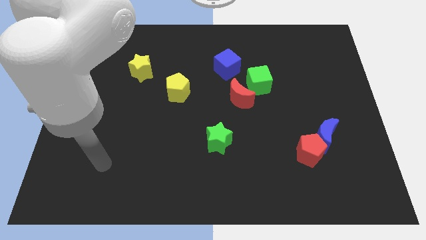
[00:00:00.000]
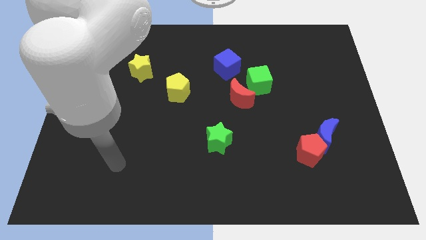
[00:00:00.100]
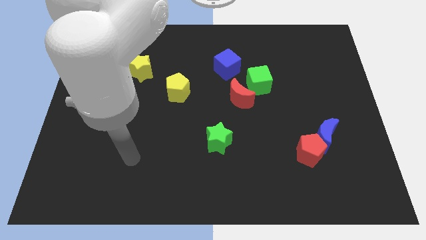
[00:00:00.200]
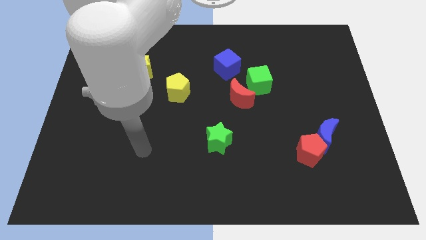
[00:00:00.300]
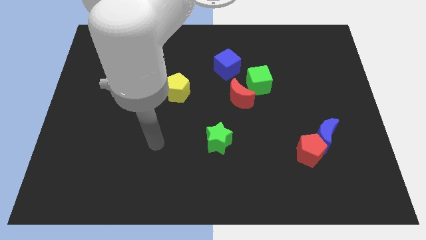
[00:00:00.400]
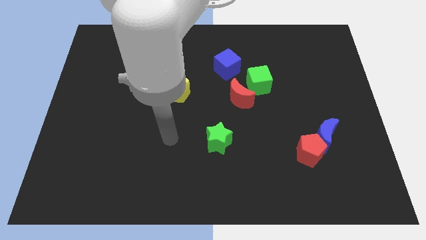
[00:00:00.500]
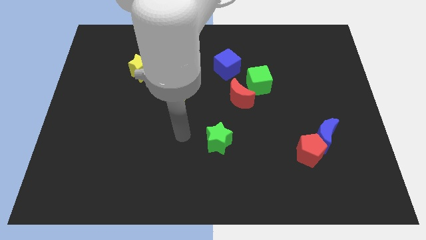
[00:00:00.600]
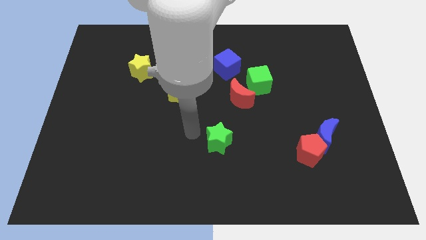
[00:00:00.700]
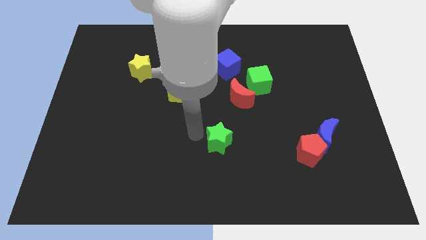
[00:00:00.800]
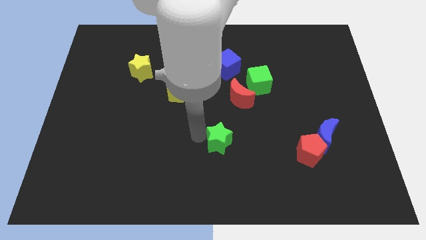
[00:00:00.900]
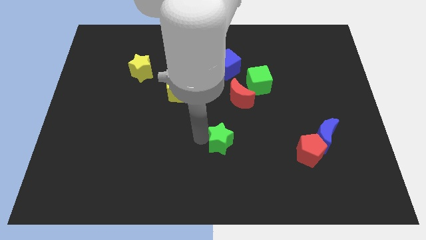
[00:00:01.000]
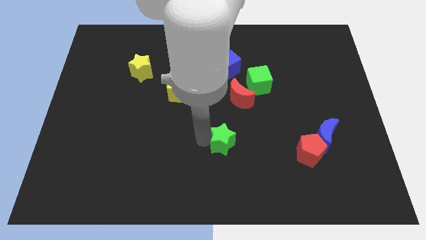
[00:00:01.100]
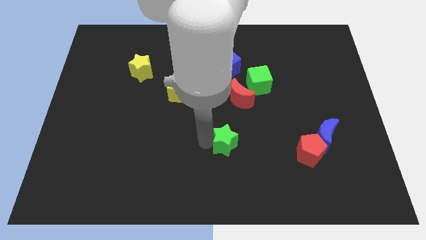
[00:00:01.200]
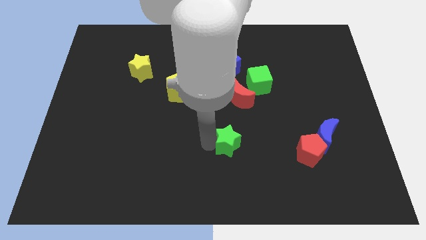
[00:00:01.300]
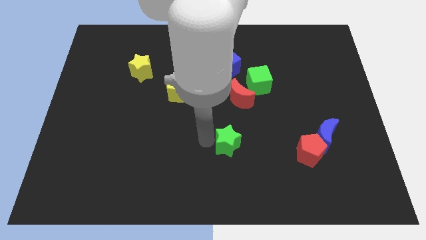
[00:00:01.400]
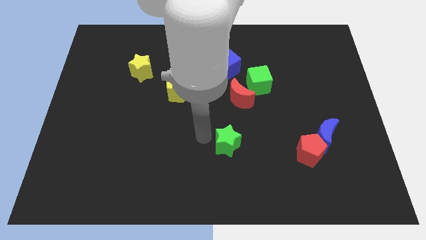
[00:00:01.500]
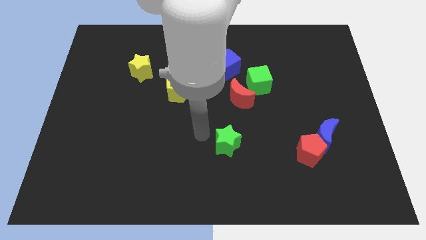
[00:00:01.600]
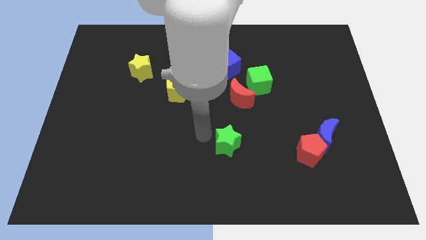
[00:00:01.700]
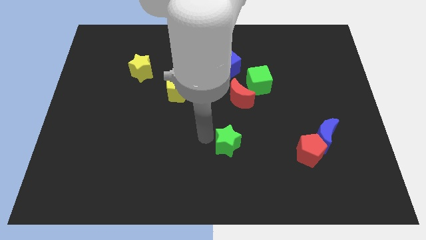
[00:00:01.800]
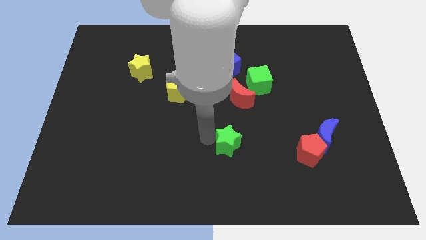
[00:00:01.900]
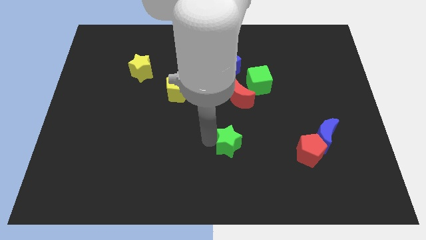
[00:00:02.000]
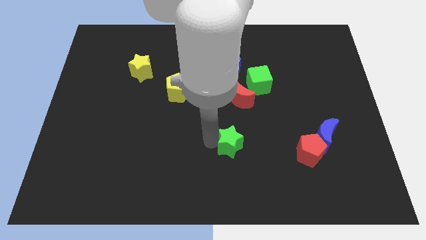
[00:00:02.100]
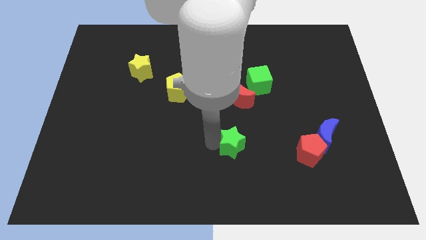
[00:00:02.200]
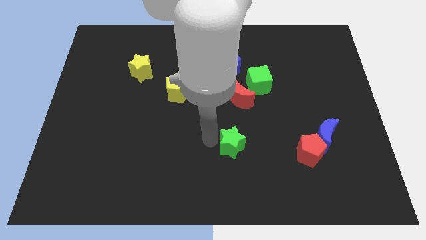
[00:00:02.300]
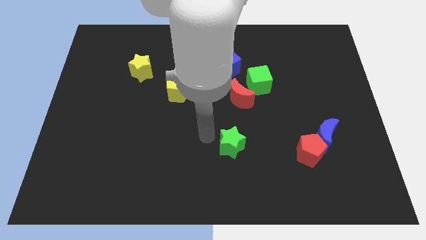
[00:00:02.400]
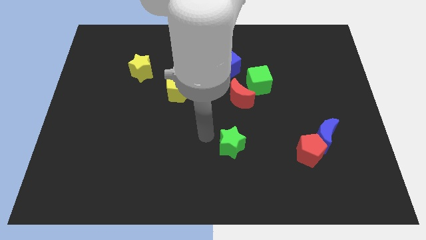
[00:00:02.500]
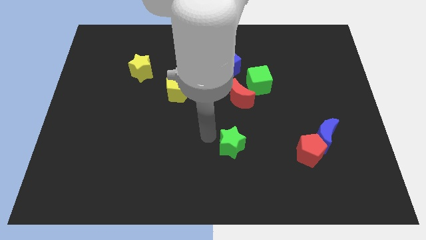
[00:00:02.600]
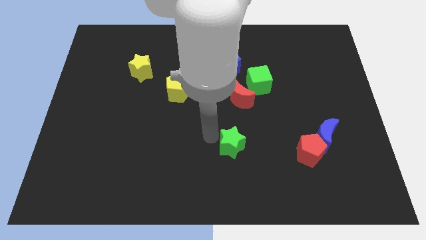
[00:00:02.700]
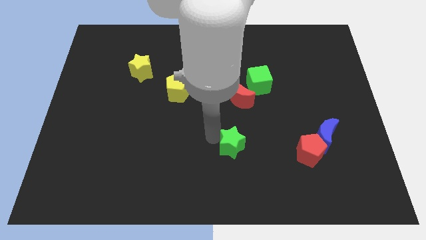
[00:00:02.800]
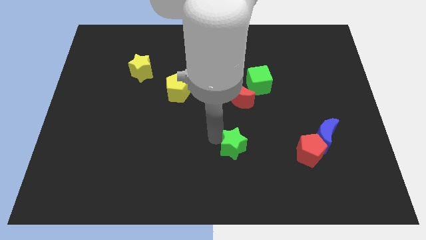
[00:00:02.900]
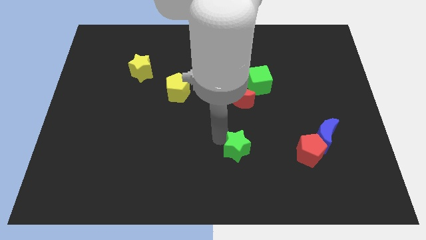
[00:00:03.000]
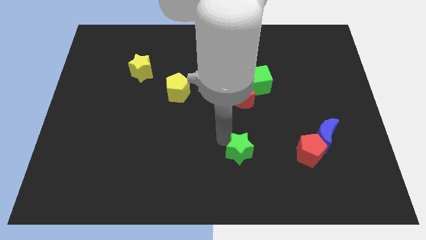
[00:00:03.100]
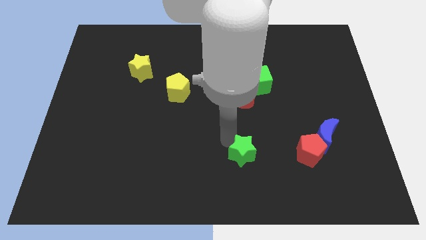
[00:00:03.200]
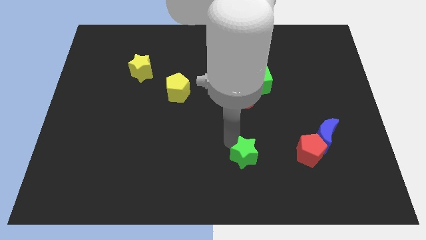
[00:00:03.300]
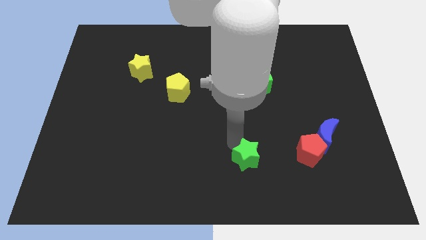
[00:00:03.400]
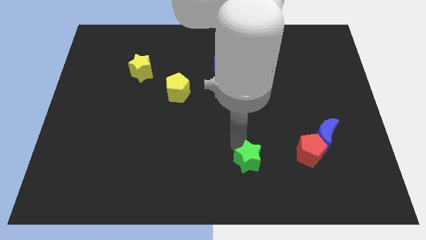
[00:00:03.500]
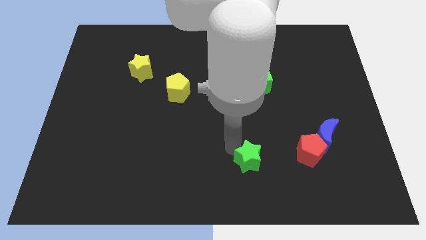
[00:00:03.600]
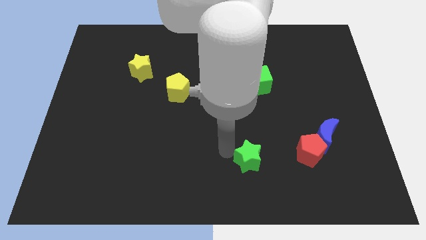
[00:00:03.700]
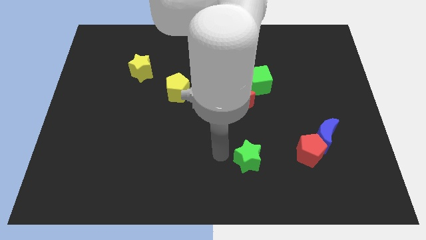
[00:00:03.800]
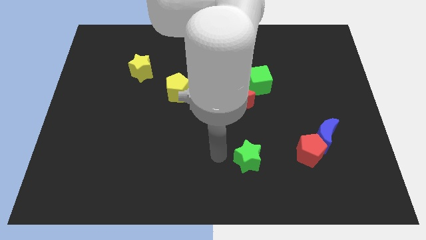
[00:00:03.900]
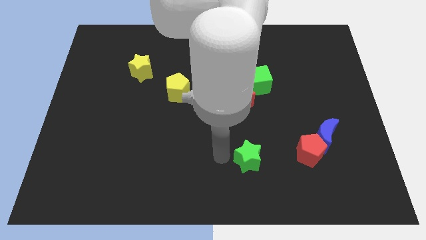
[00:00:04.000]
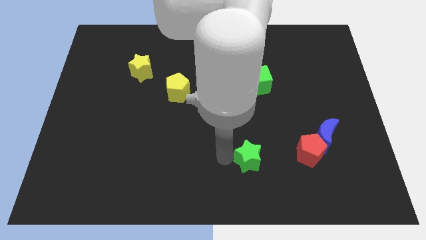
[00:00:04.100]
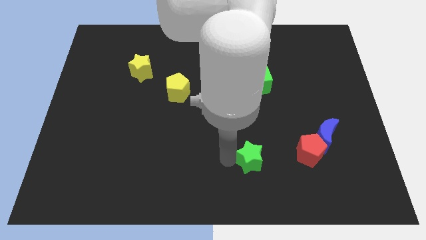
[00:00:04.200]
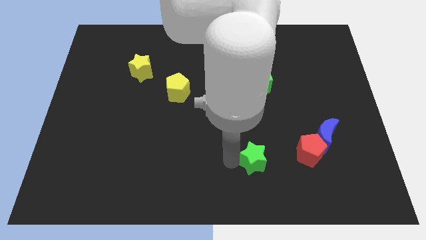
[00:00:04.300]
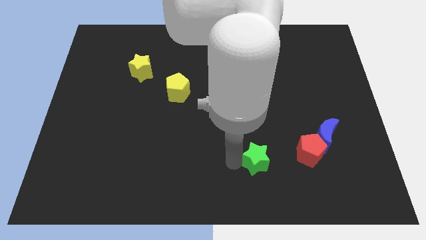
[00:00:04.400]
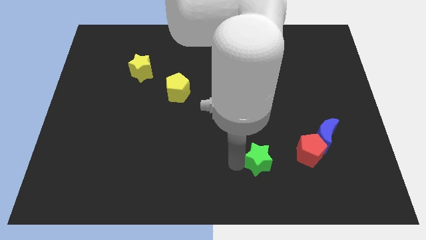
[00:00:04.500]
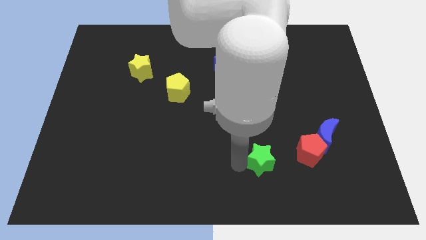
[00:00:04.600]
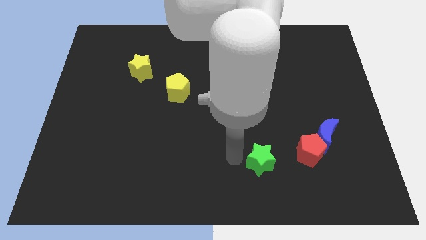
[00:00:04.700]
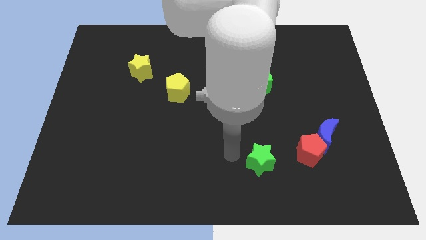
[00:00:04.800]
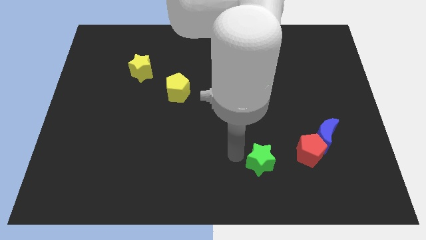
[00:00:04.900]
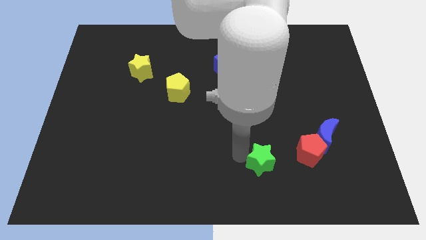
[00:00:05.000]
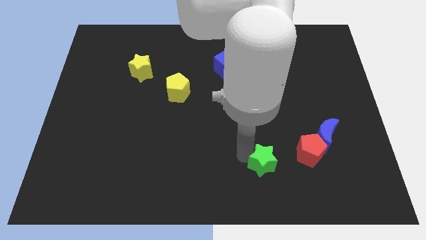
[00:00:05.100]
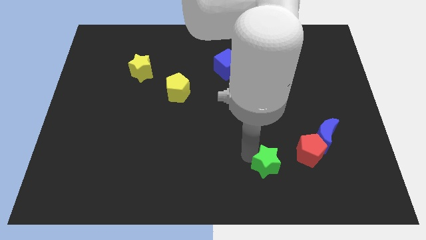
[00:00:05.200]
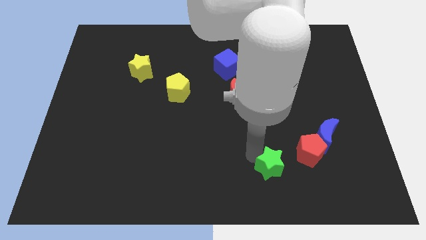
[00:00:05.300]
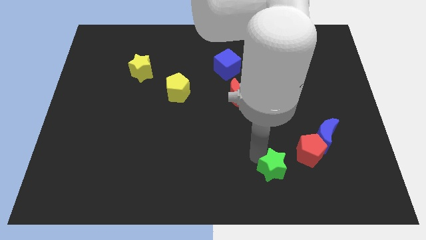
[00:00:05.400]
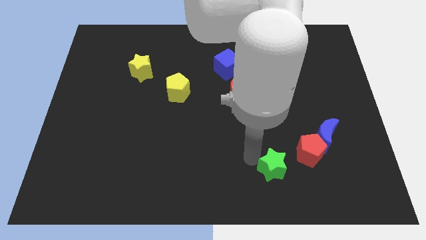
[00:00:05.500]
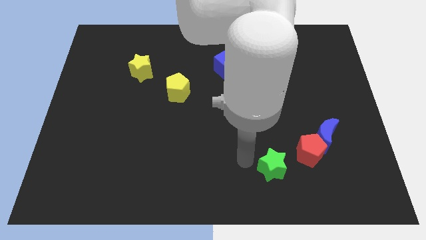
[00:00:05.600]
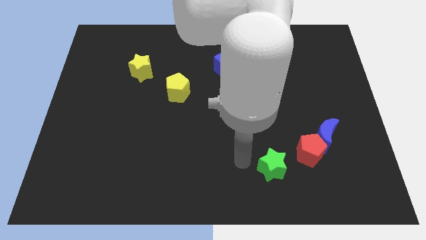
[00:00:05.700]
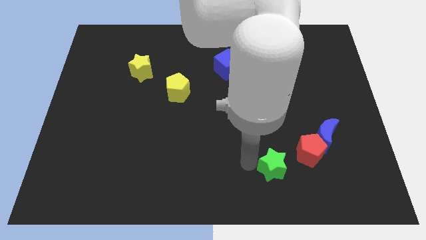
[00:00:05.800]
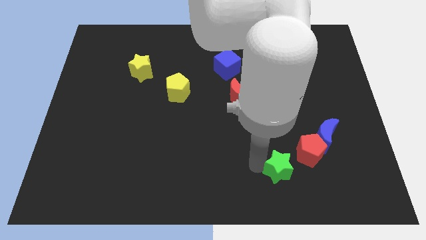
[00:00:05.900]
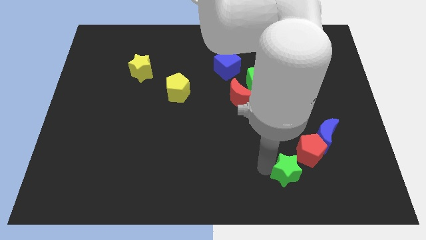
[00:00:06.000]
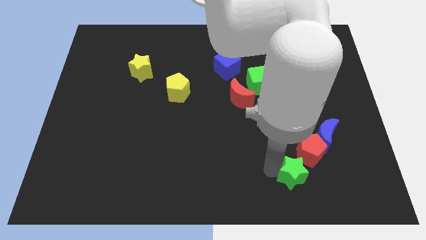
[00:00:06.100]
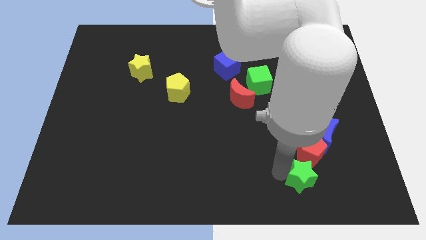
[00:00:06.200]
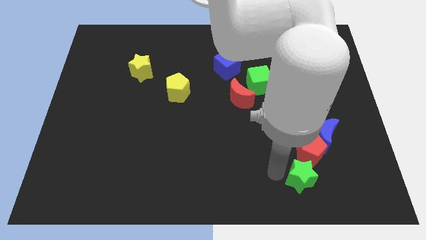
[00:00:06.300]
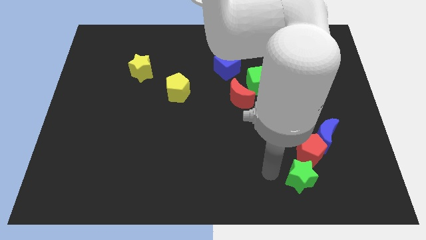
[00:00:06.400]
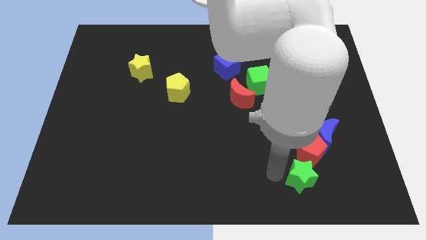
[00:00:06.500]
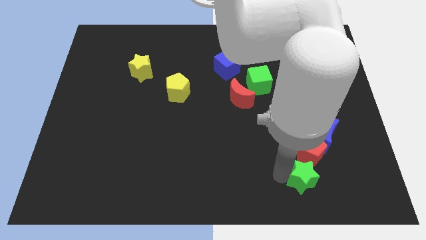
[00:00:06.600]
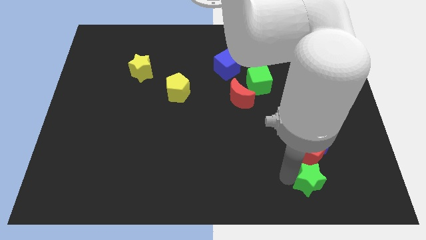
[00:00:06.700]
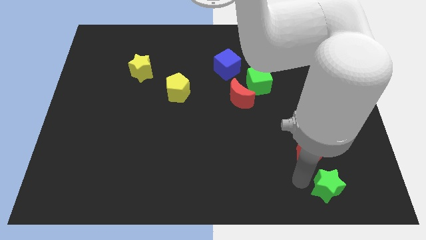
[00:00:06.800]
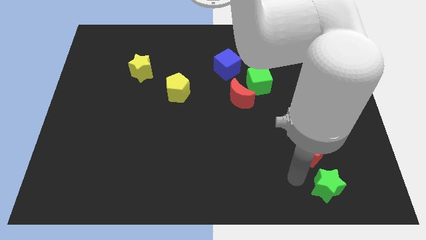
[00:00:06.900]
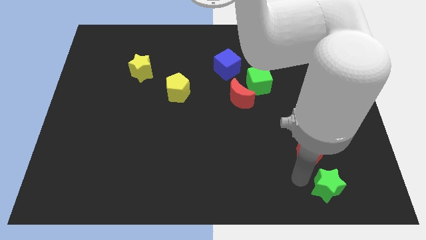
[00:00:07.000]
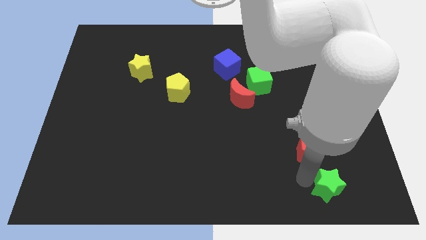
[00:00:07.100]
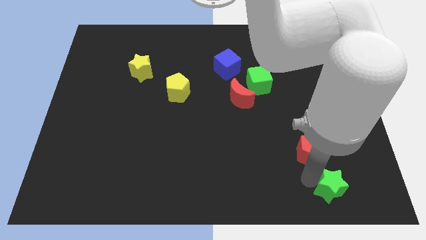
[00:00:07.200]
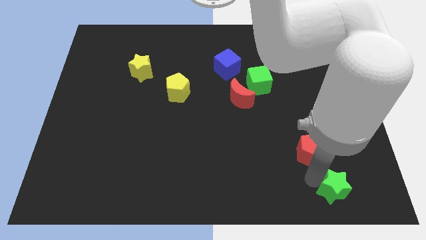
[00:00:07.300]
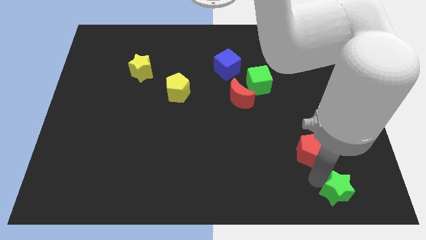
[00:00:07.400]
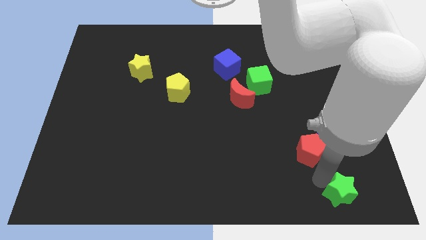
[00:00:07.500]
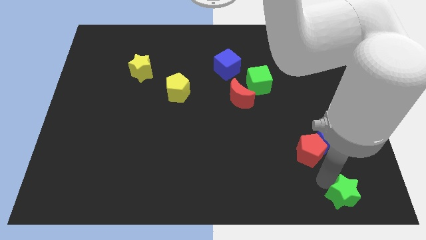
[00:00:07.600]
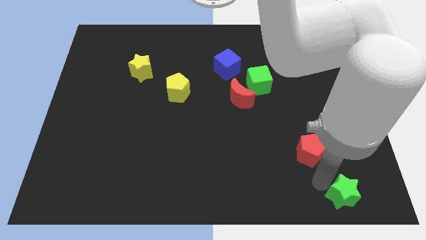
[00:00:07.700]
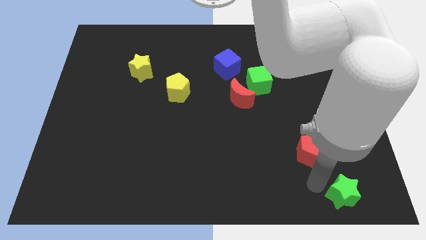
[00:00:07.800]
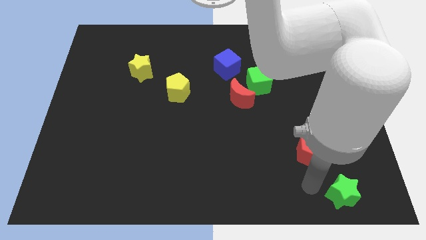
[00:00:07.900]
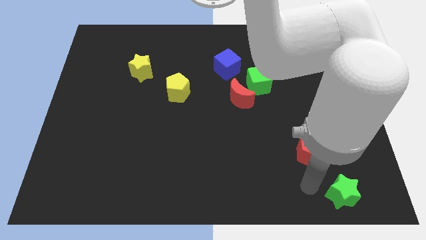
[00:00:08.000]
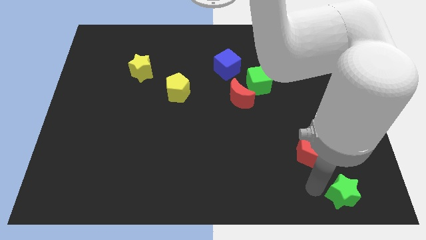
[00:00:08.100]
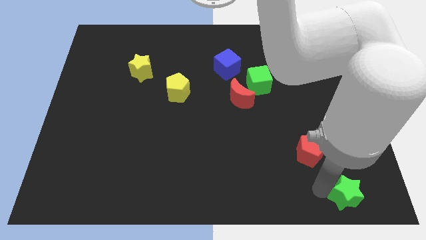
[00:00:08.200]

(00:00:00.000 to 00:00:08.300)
push the green star to the bottom right
